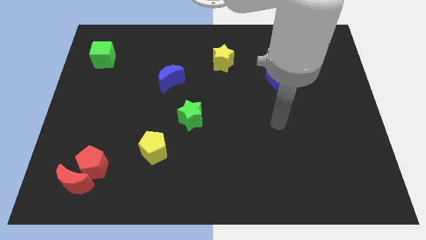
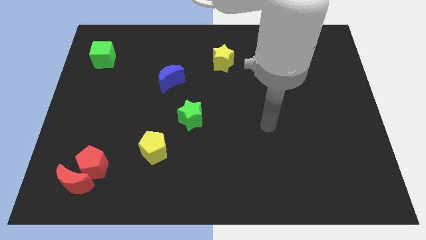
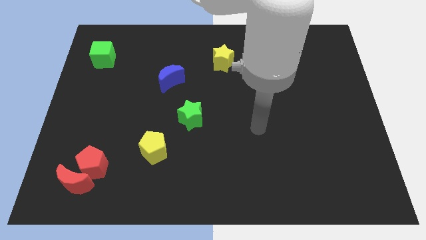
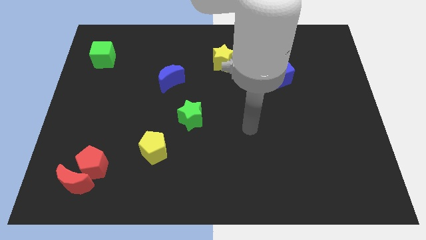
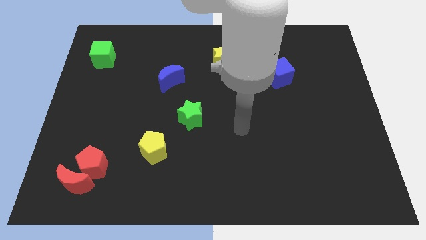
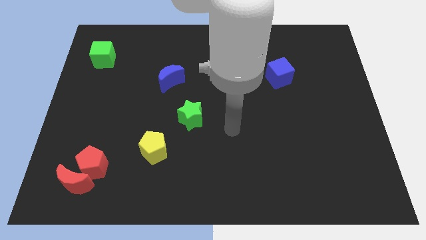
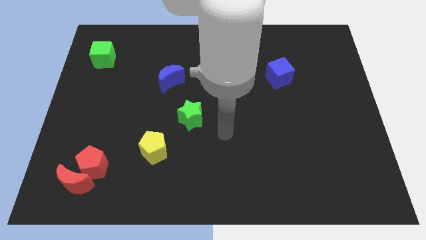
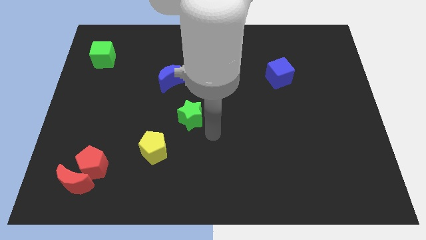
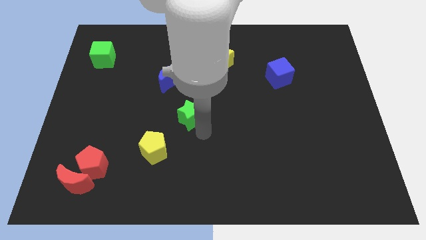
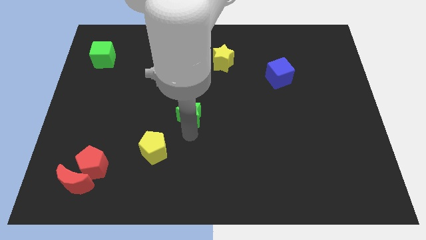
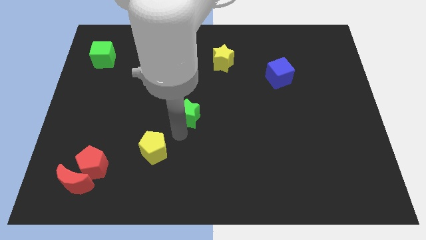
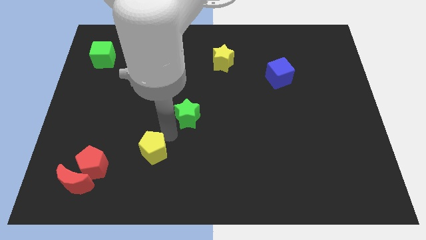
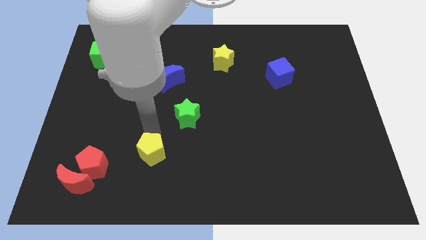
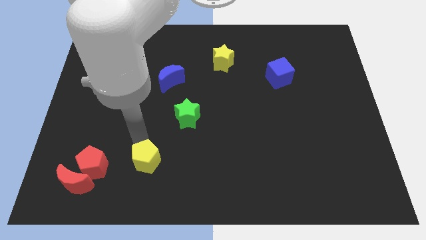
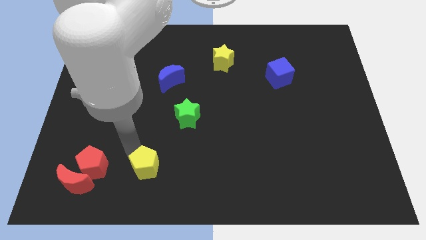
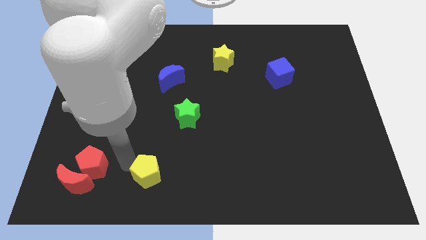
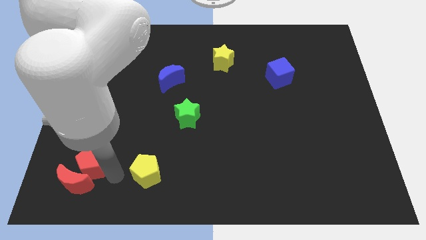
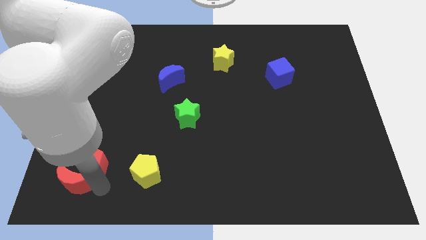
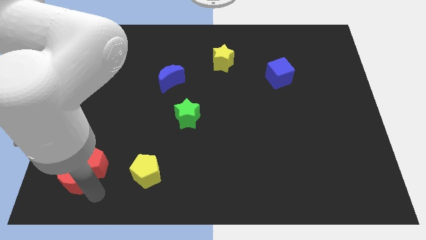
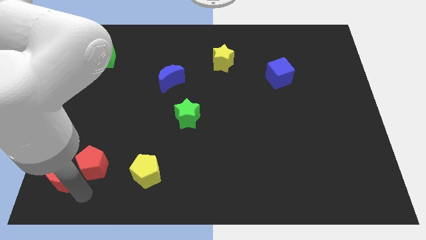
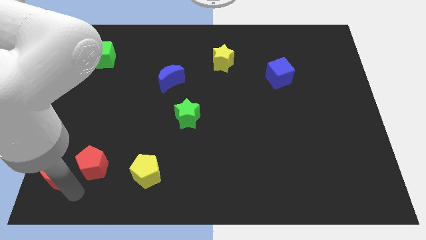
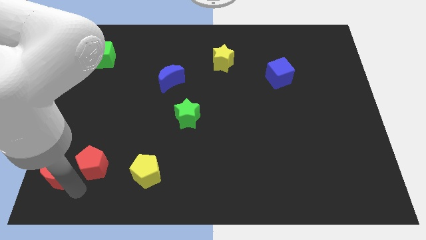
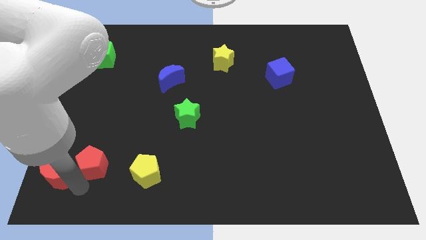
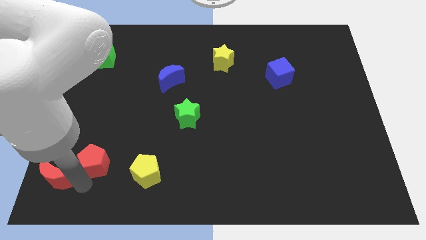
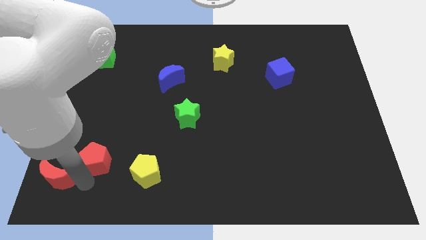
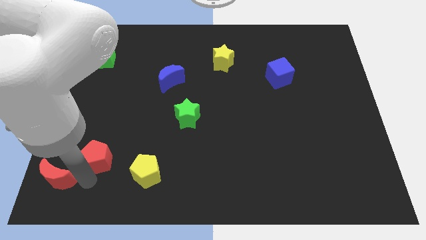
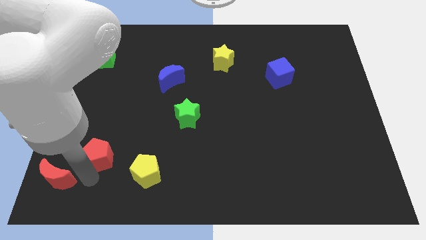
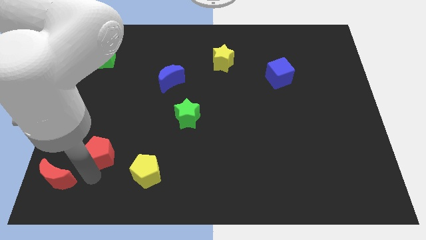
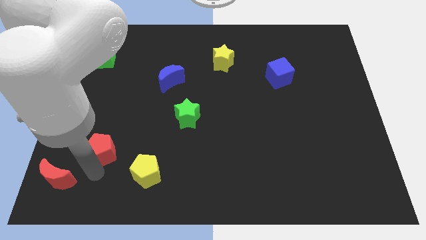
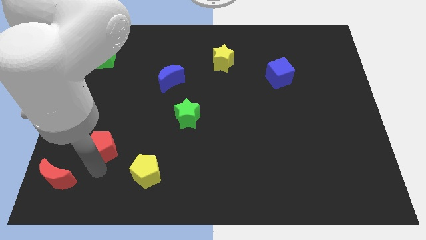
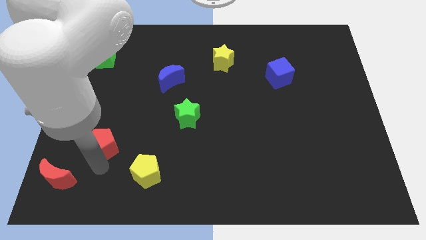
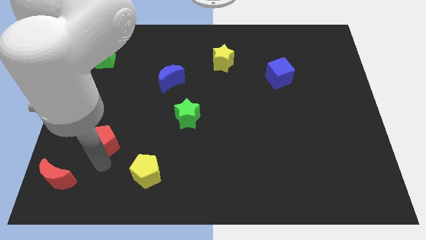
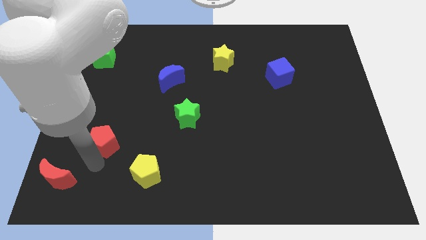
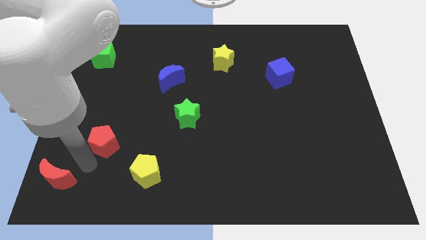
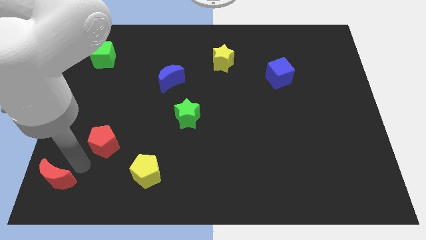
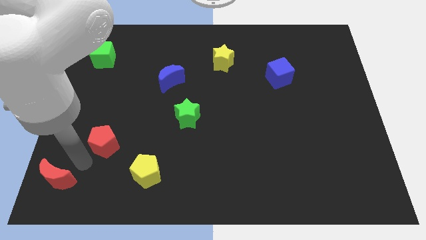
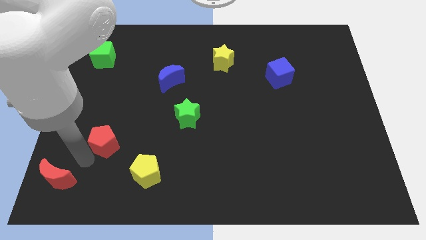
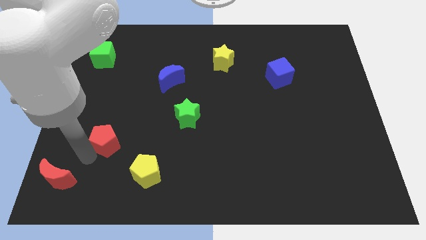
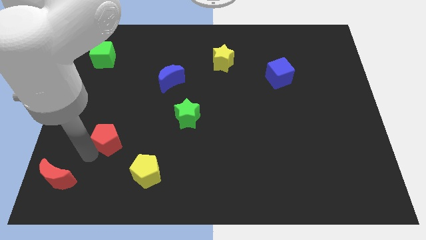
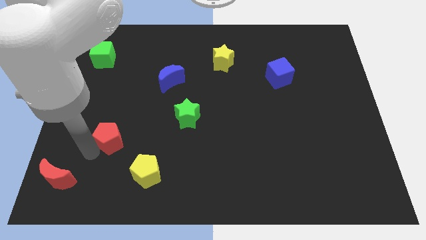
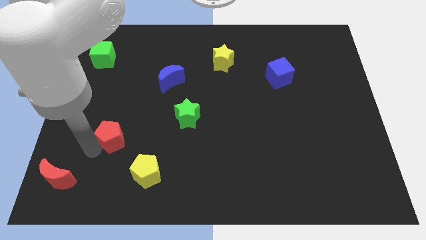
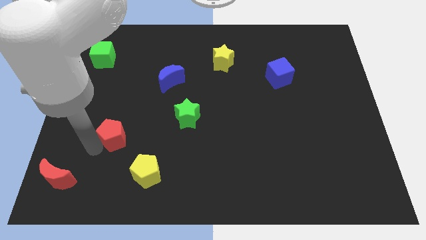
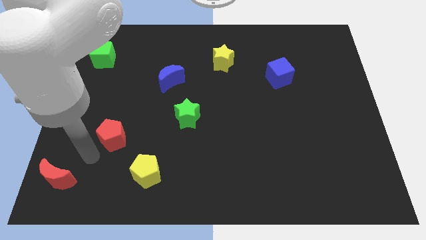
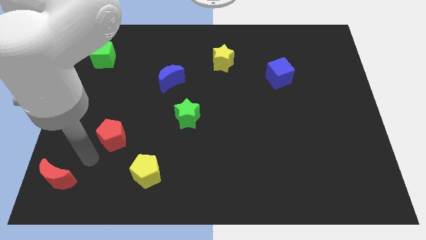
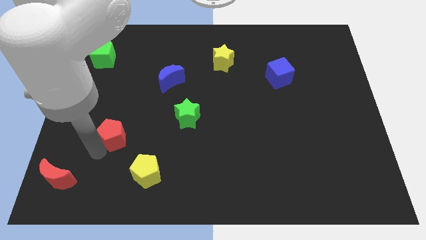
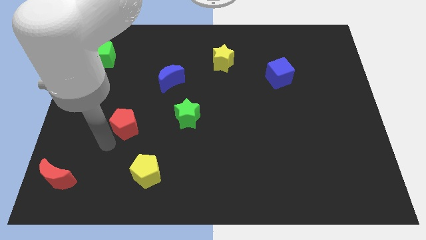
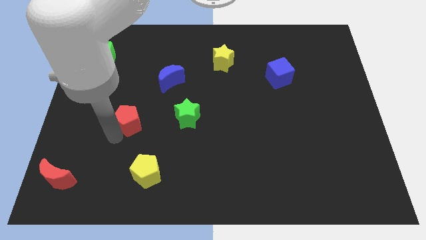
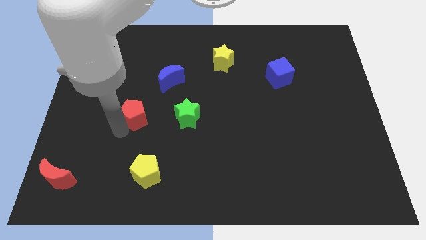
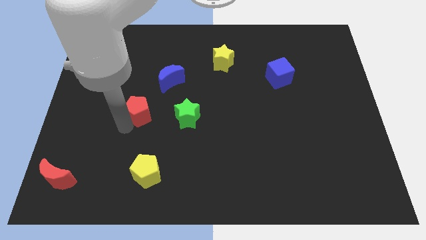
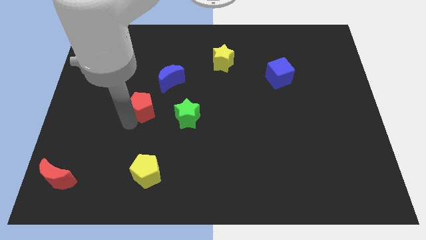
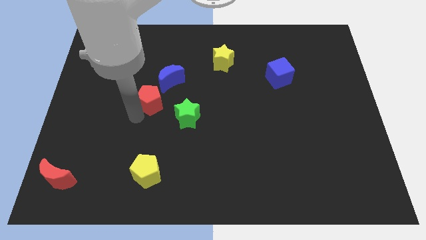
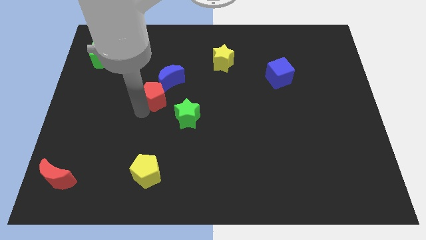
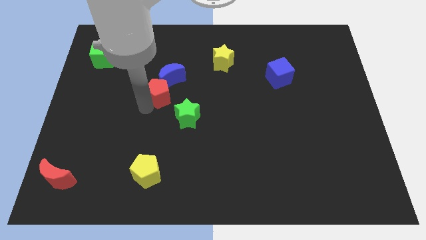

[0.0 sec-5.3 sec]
push the red pentagon next to the blue moon

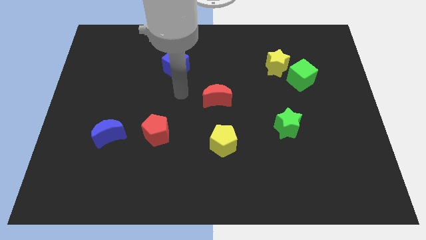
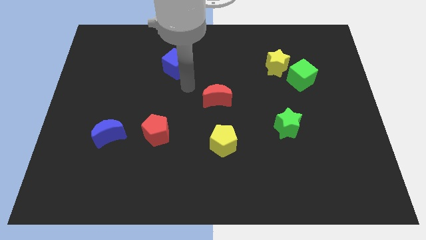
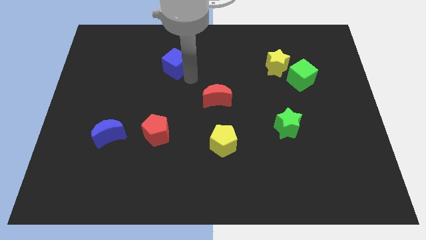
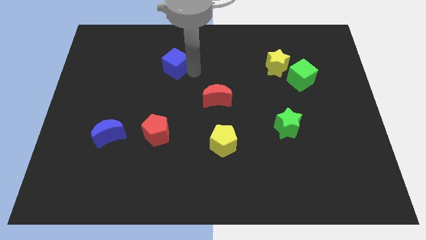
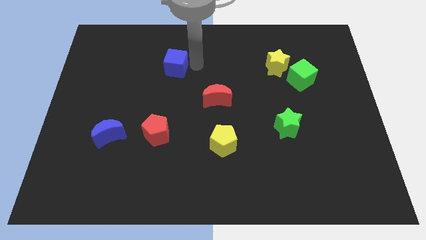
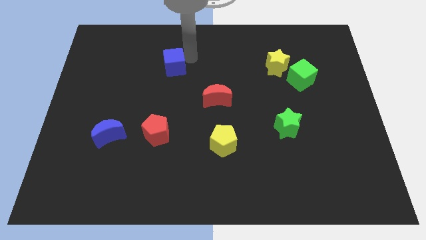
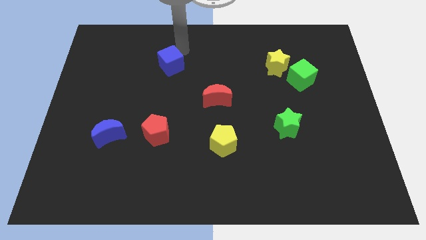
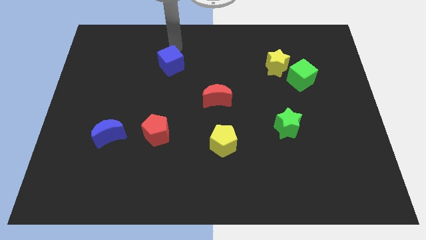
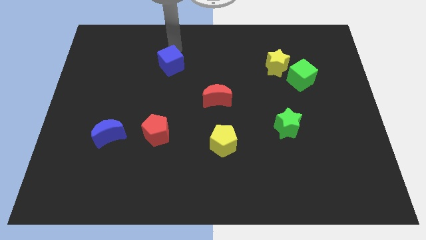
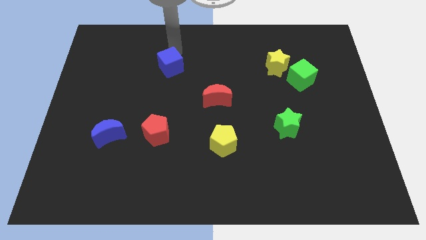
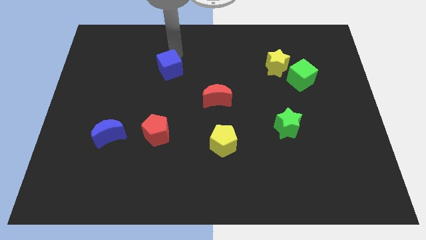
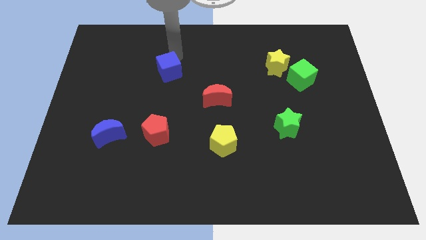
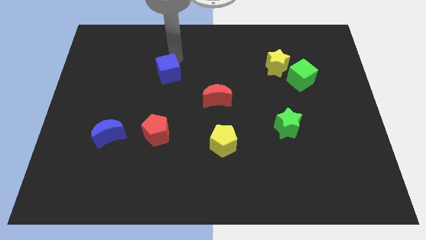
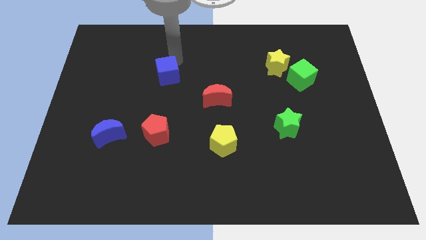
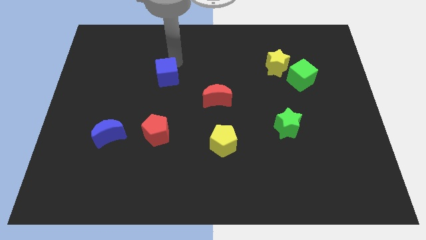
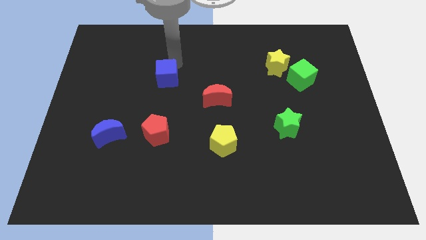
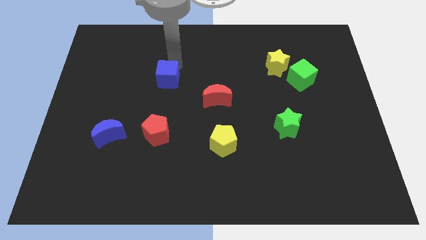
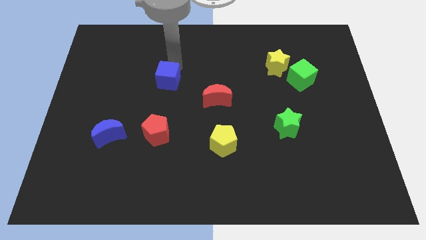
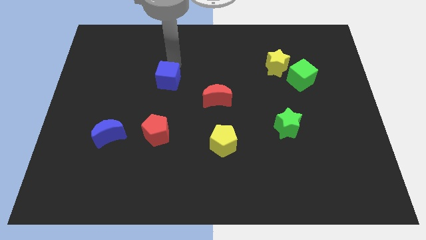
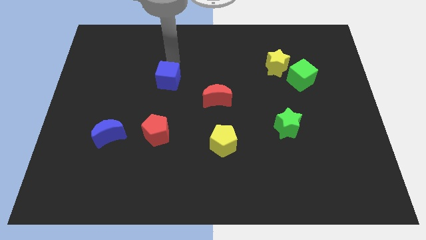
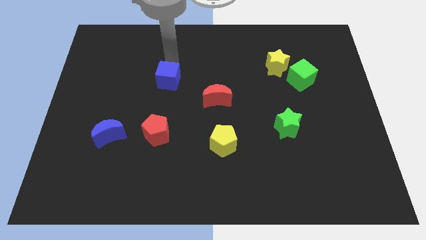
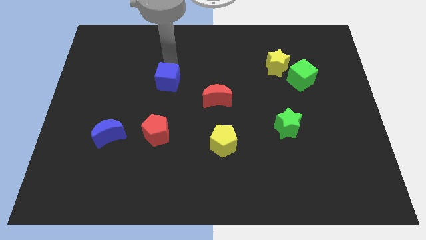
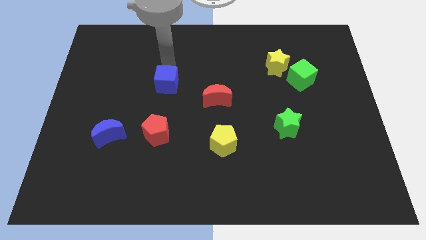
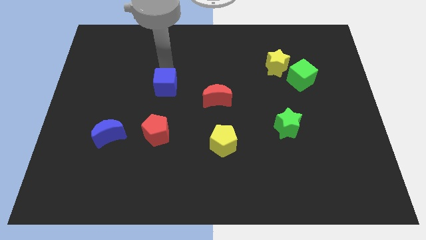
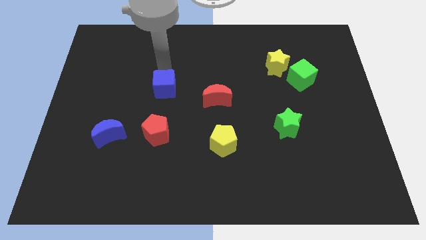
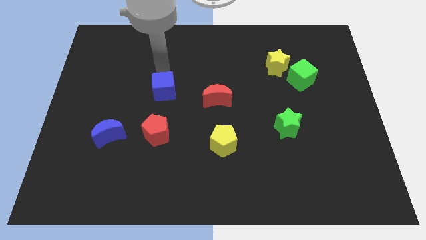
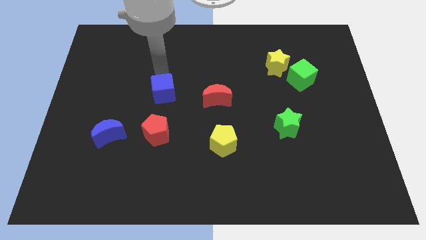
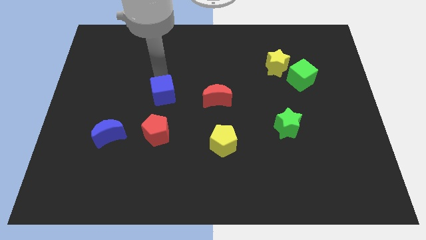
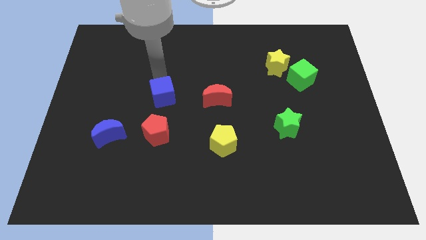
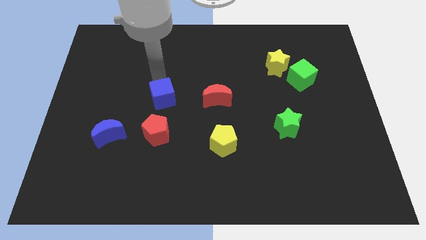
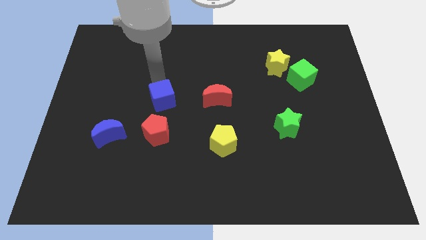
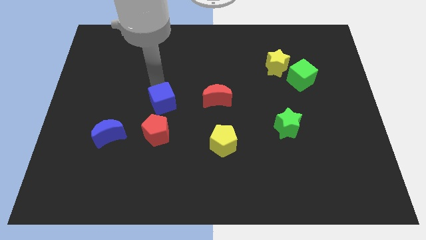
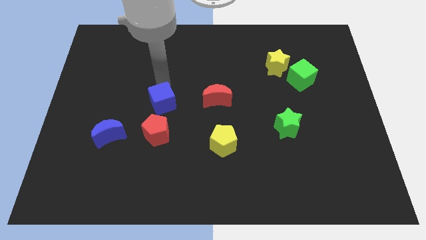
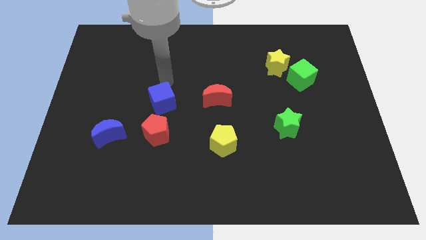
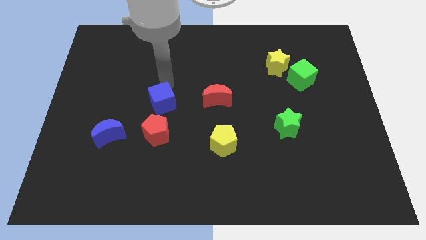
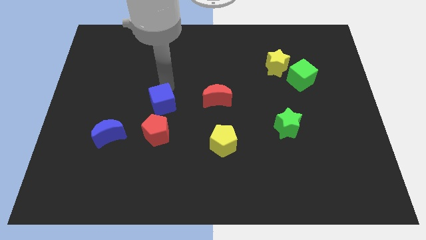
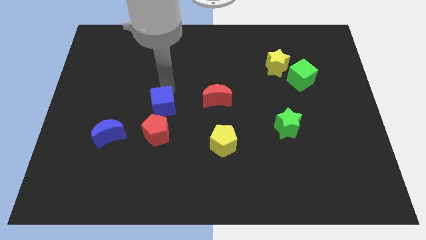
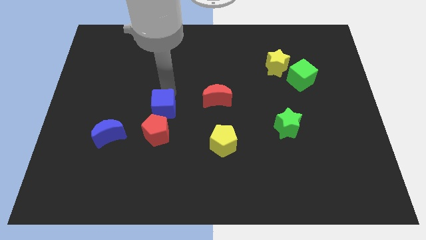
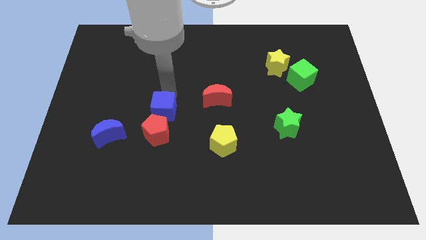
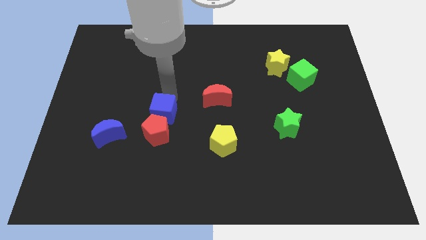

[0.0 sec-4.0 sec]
push the blue cube close to the red pentagon
